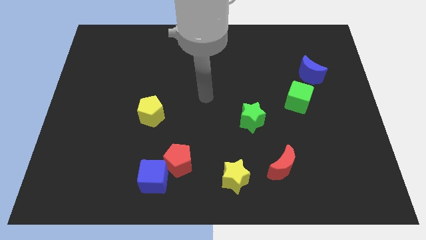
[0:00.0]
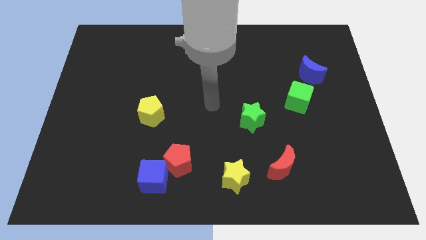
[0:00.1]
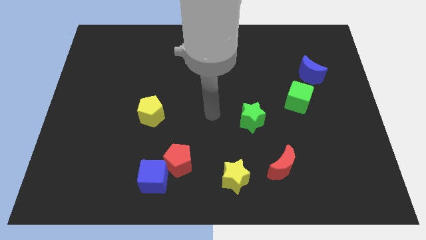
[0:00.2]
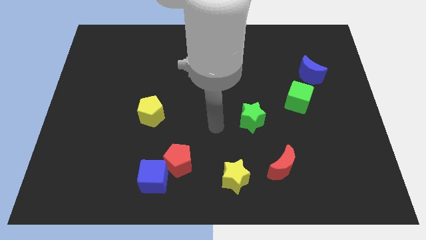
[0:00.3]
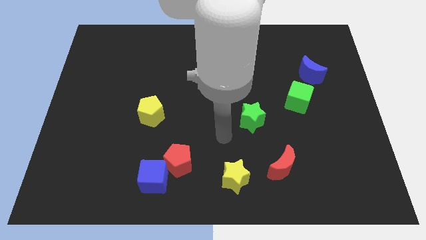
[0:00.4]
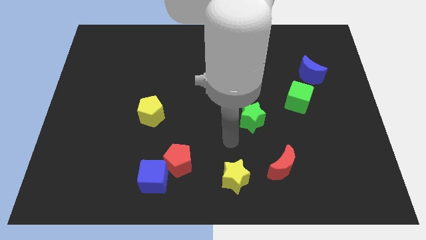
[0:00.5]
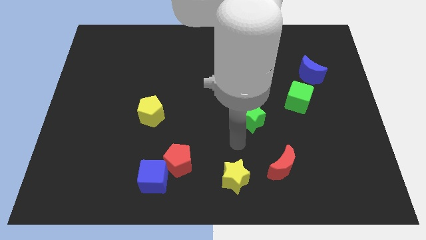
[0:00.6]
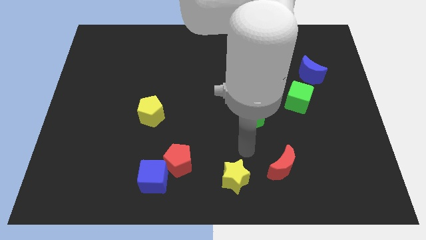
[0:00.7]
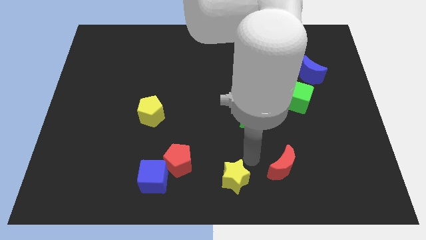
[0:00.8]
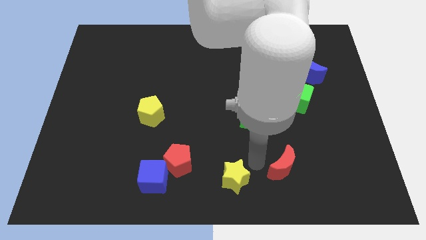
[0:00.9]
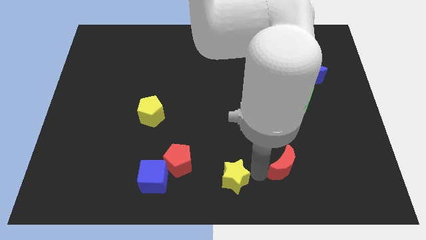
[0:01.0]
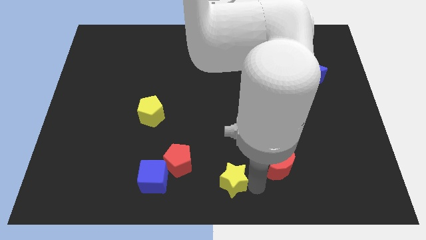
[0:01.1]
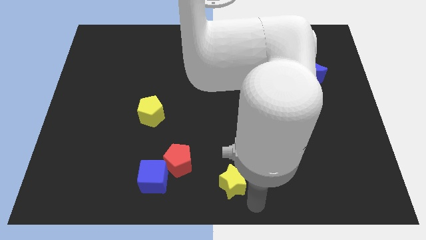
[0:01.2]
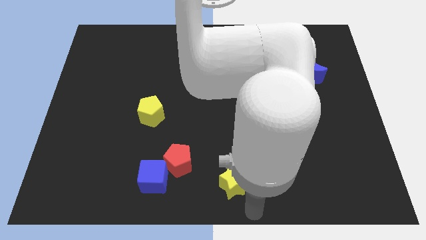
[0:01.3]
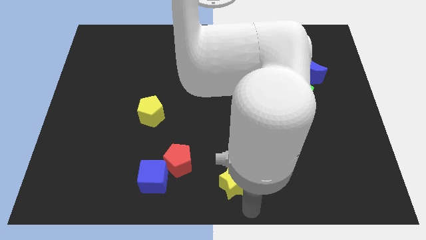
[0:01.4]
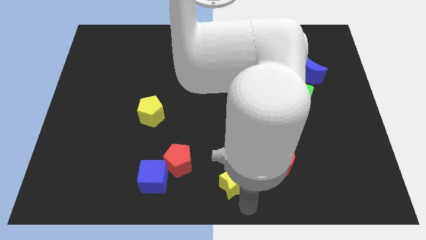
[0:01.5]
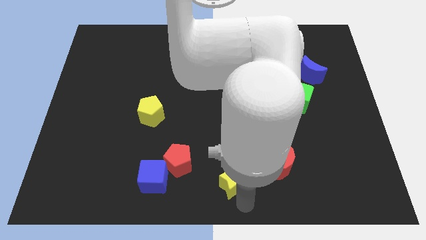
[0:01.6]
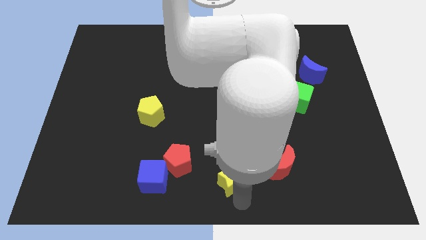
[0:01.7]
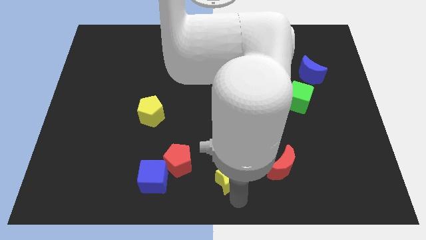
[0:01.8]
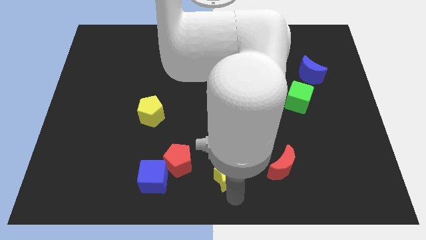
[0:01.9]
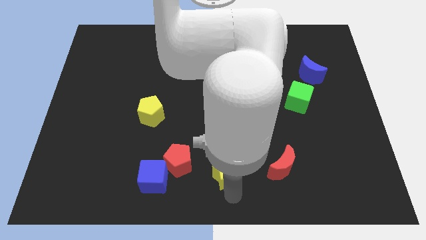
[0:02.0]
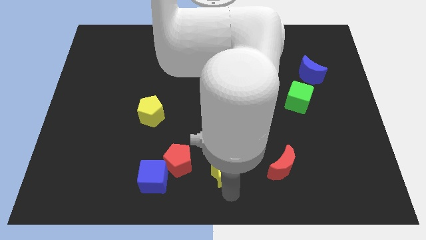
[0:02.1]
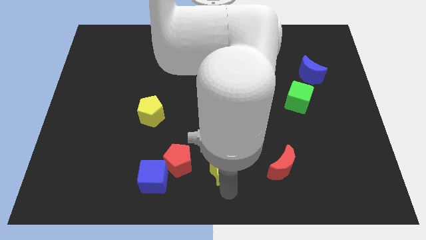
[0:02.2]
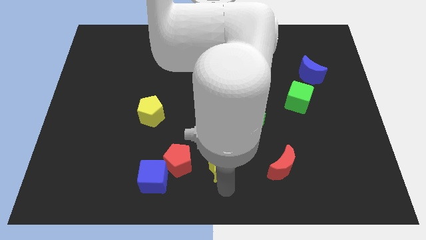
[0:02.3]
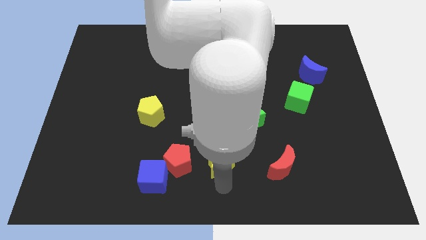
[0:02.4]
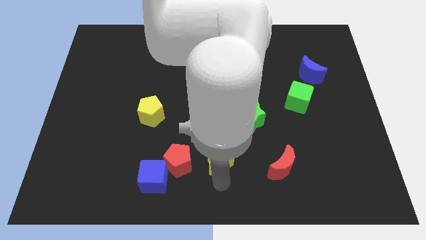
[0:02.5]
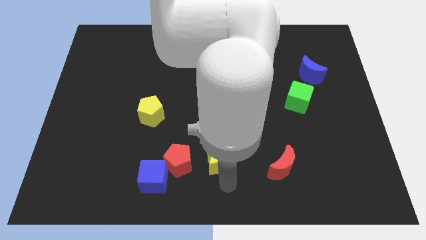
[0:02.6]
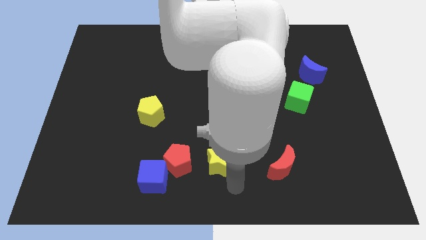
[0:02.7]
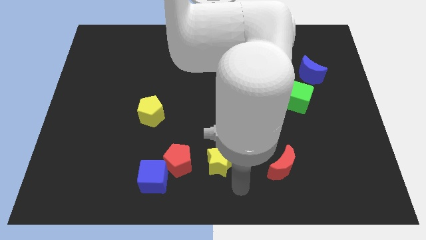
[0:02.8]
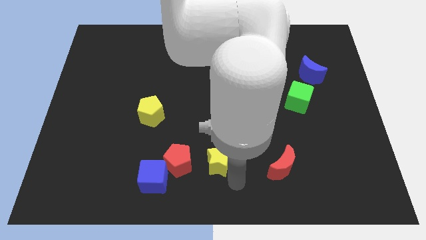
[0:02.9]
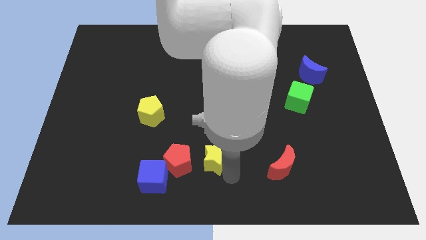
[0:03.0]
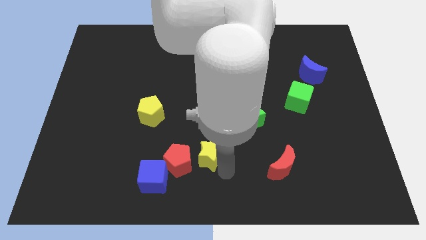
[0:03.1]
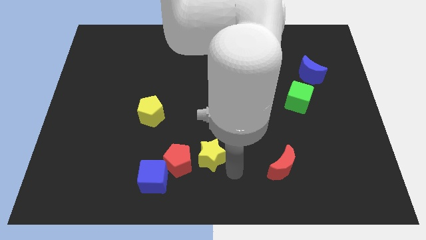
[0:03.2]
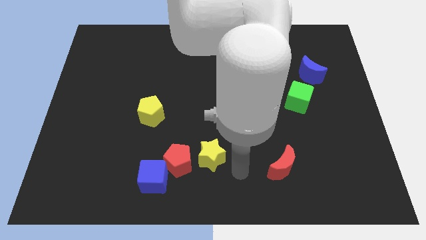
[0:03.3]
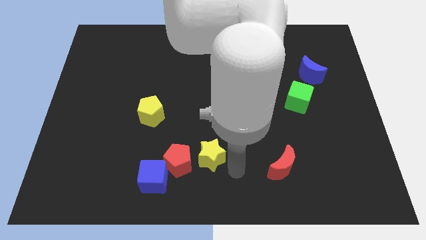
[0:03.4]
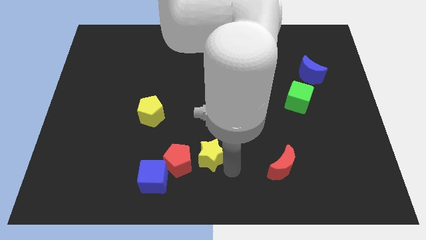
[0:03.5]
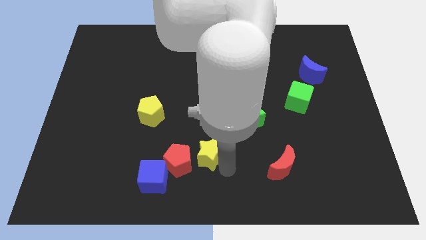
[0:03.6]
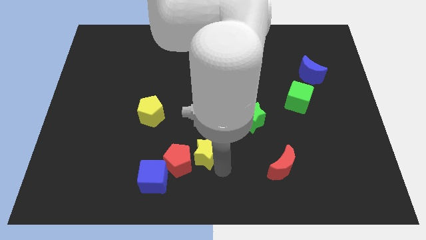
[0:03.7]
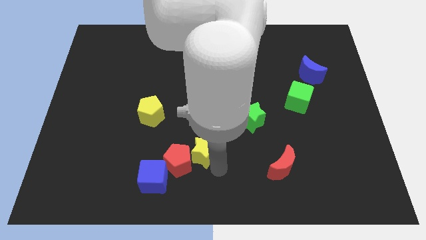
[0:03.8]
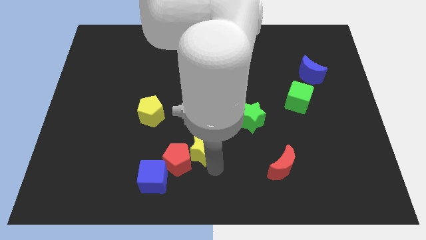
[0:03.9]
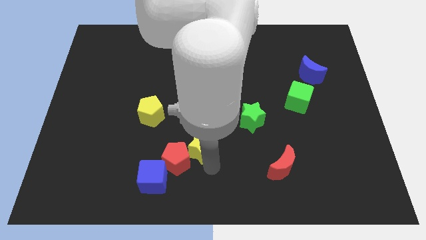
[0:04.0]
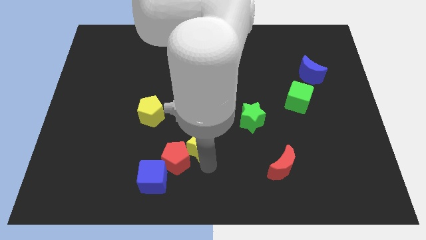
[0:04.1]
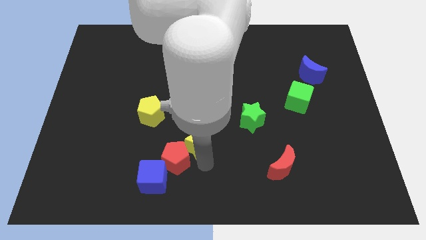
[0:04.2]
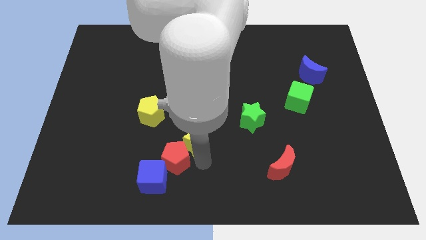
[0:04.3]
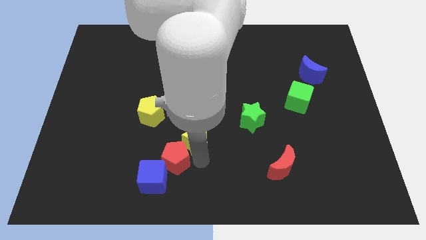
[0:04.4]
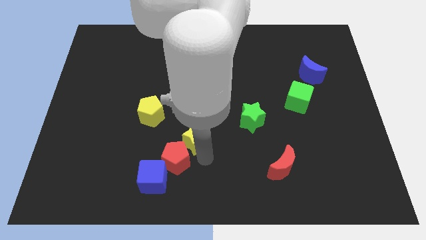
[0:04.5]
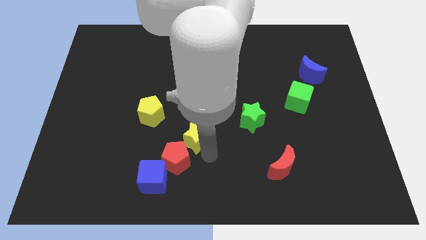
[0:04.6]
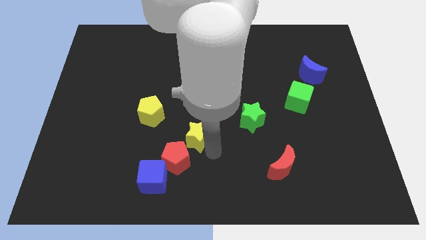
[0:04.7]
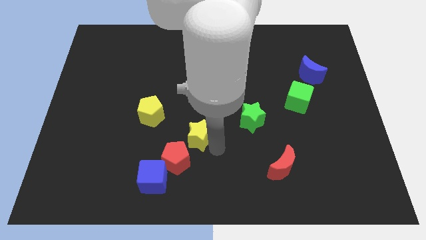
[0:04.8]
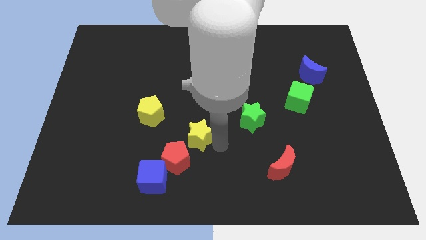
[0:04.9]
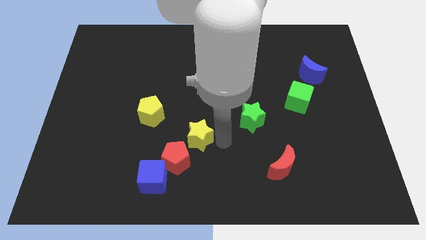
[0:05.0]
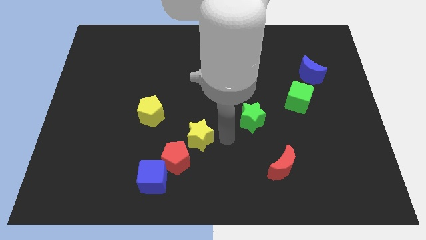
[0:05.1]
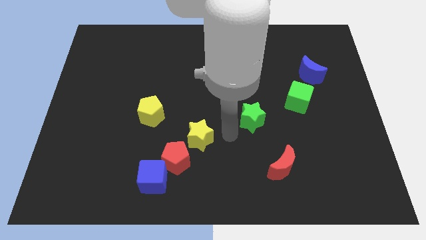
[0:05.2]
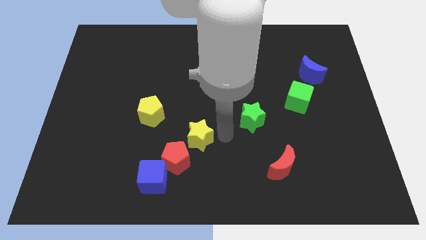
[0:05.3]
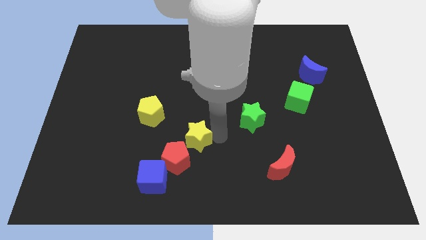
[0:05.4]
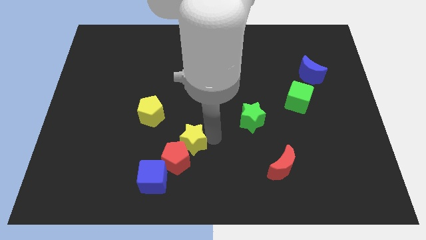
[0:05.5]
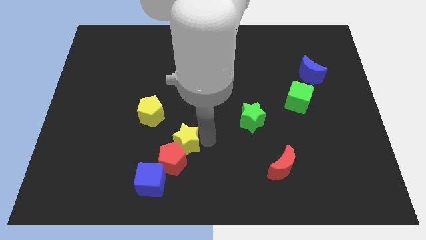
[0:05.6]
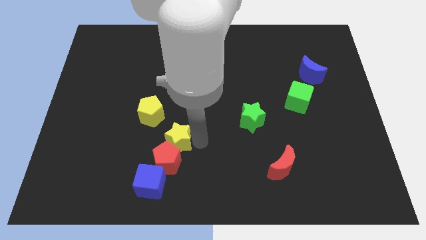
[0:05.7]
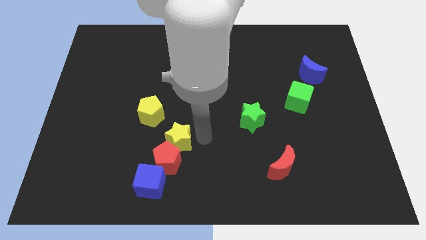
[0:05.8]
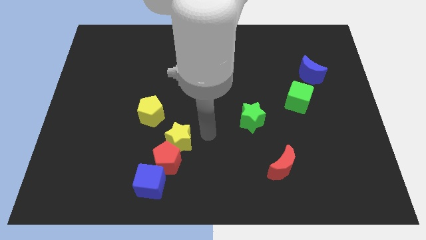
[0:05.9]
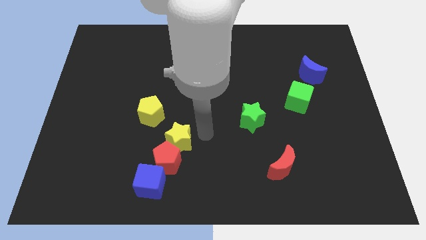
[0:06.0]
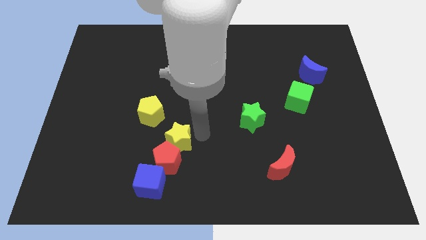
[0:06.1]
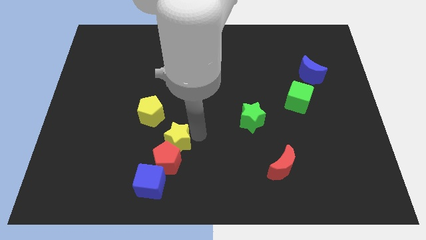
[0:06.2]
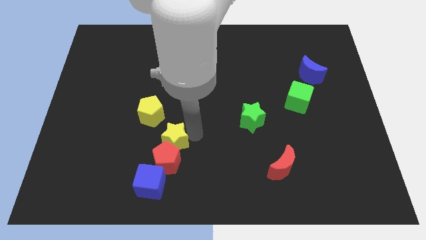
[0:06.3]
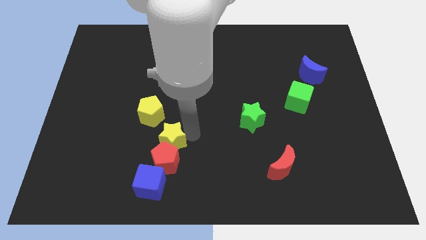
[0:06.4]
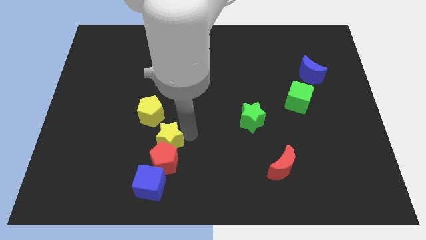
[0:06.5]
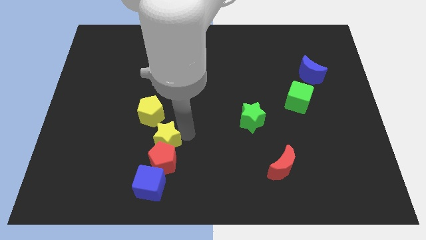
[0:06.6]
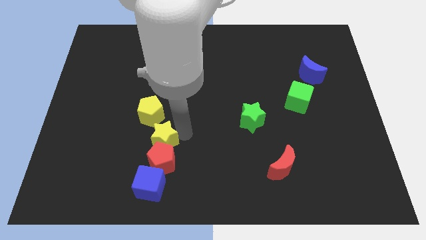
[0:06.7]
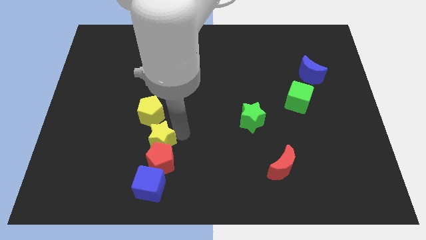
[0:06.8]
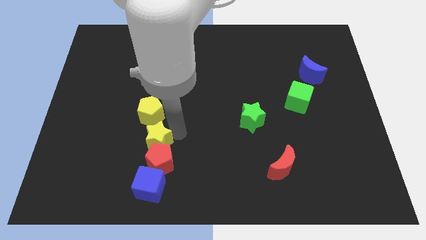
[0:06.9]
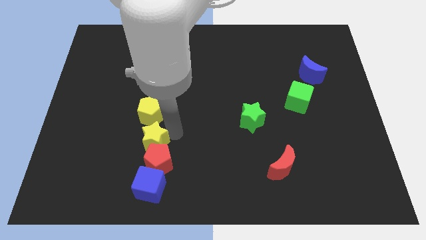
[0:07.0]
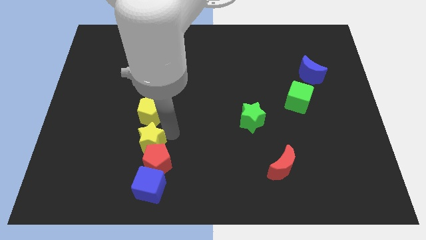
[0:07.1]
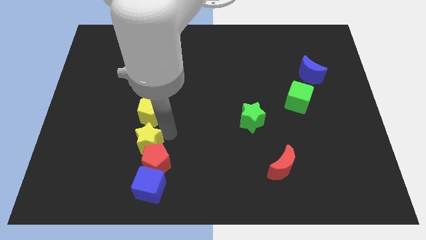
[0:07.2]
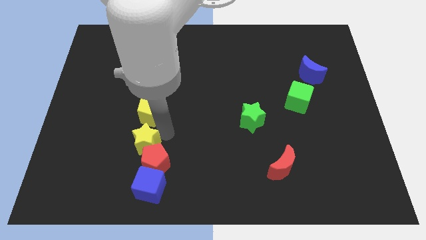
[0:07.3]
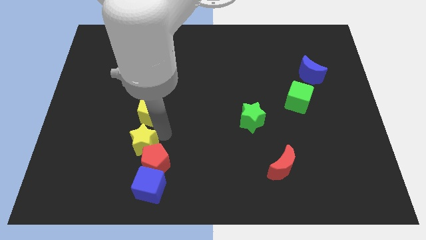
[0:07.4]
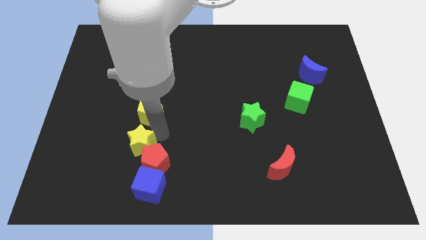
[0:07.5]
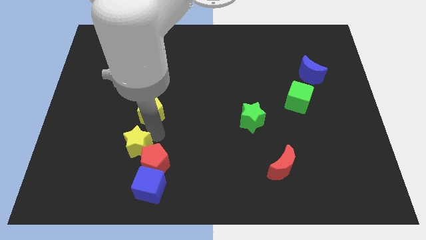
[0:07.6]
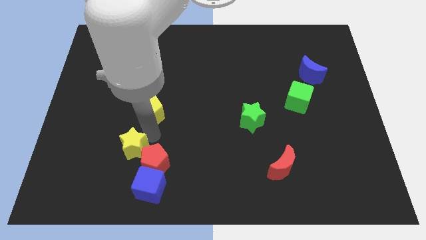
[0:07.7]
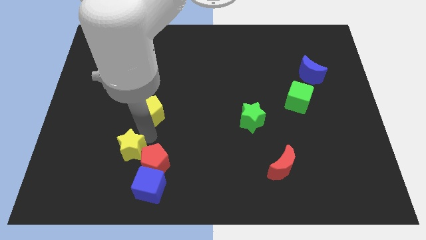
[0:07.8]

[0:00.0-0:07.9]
move the yellow star left

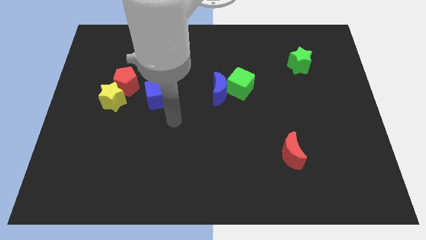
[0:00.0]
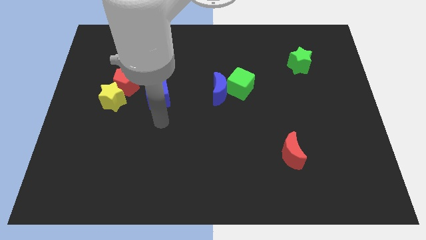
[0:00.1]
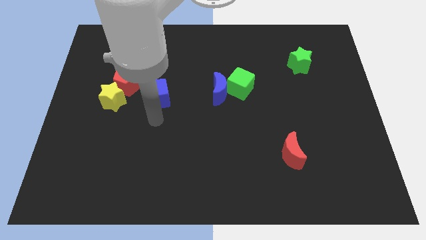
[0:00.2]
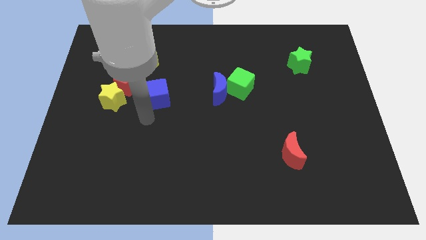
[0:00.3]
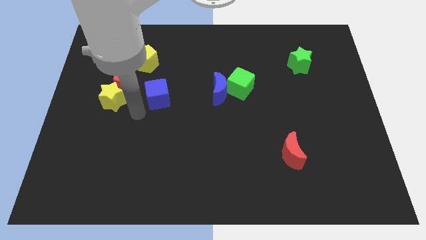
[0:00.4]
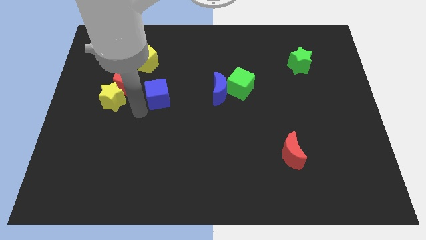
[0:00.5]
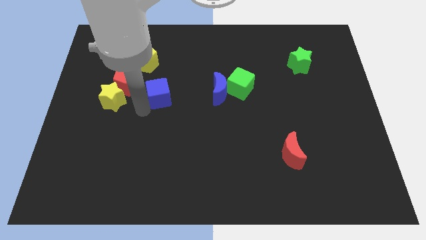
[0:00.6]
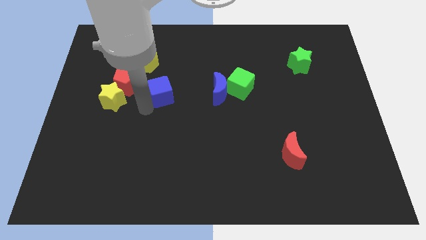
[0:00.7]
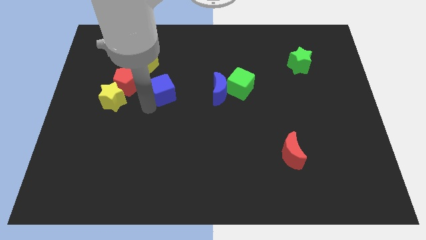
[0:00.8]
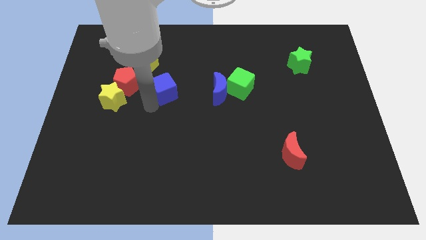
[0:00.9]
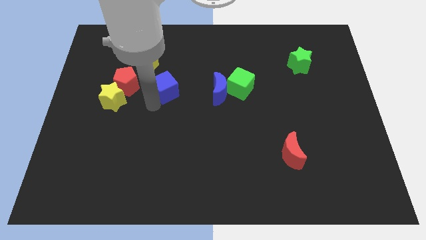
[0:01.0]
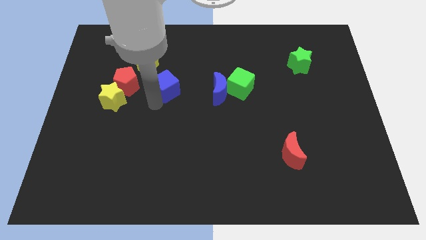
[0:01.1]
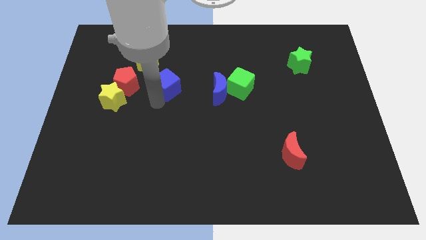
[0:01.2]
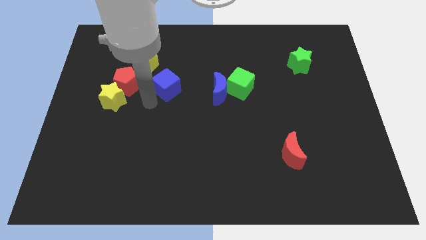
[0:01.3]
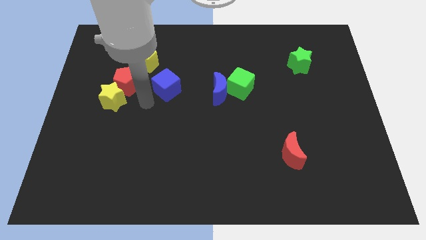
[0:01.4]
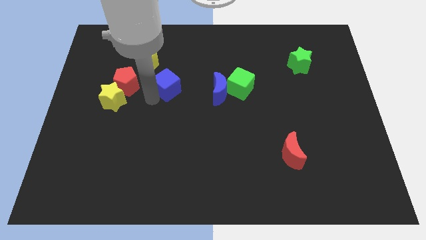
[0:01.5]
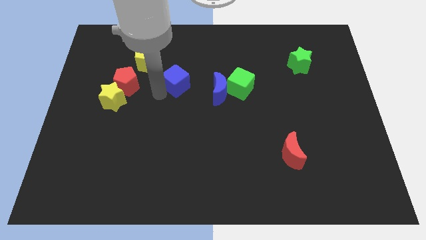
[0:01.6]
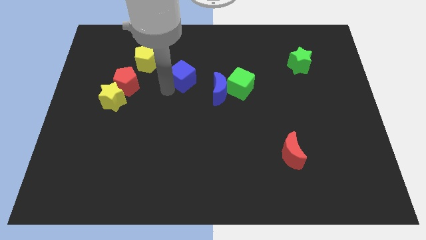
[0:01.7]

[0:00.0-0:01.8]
slightly move the blue cube up and then to the right
